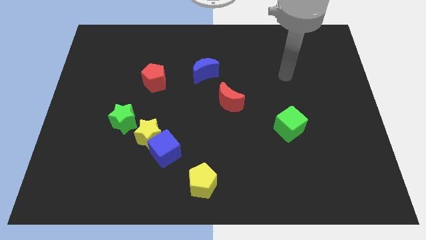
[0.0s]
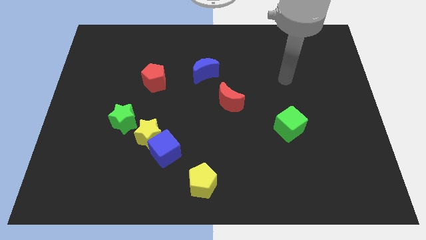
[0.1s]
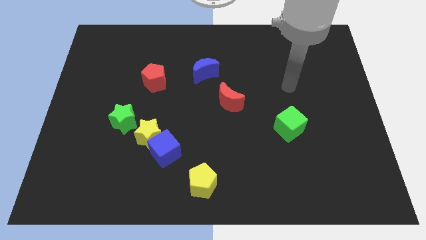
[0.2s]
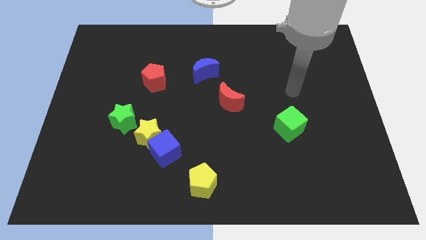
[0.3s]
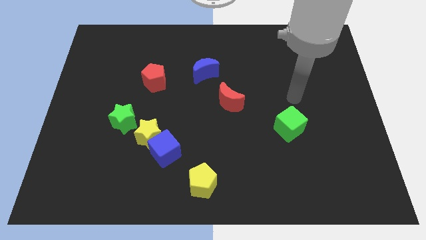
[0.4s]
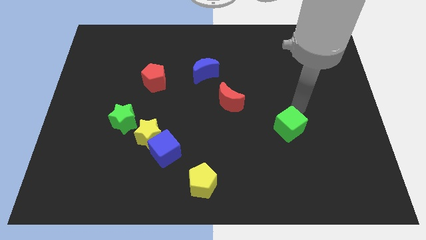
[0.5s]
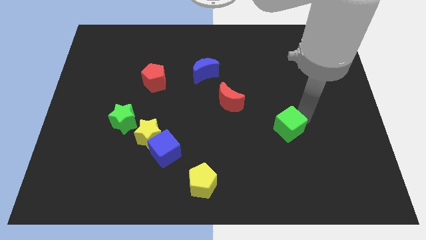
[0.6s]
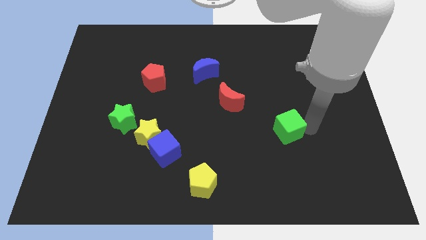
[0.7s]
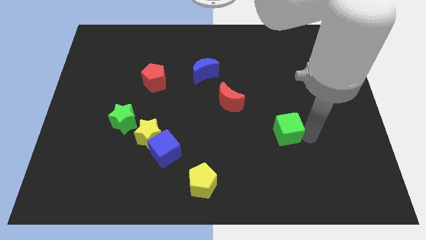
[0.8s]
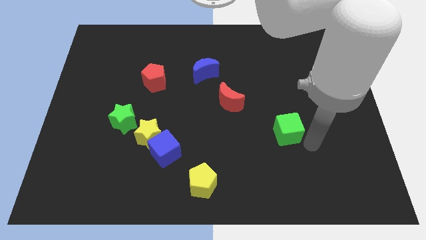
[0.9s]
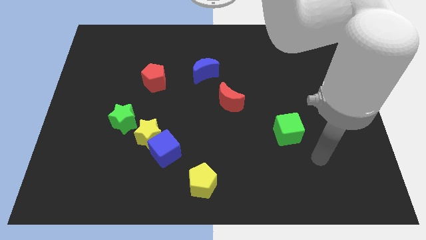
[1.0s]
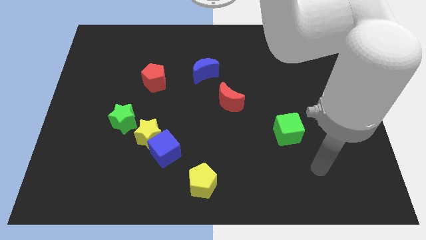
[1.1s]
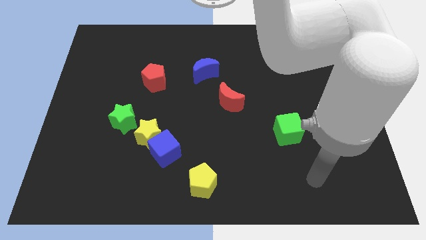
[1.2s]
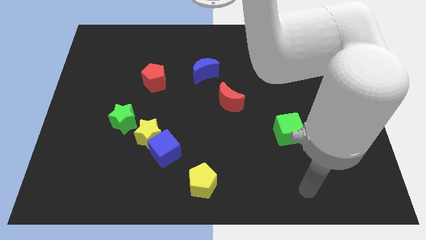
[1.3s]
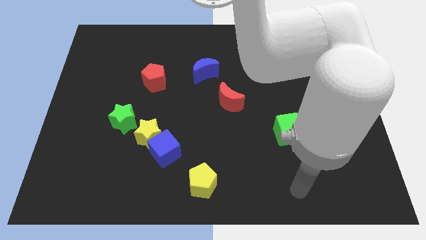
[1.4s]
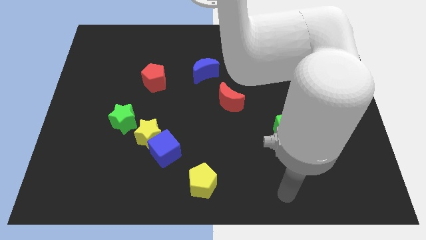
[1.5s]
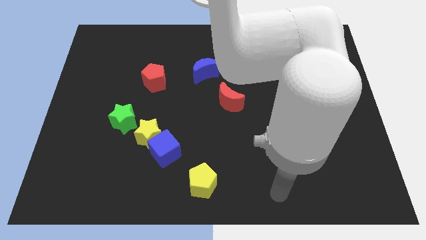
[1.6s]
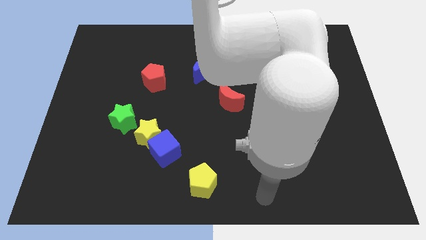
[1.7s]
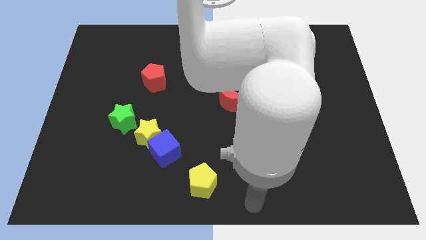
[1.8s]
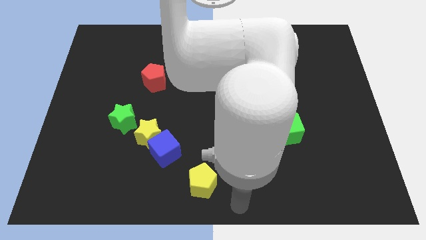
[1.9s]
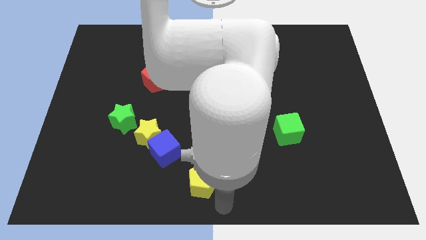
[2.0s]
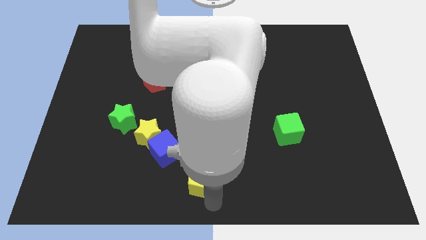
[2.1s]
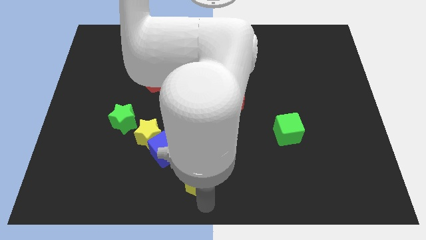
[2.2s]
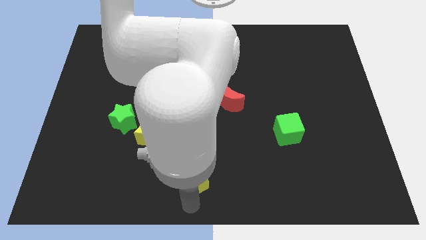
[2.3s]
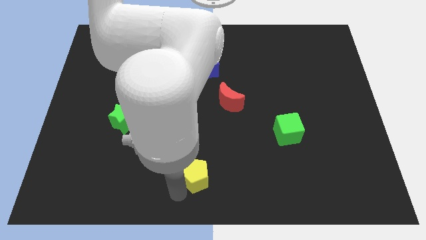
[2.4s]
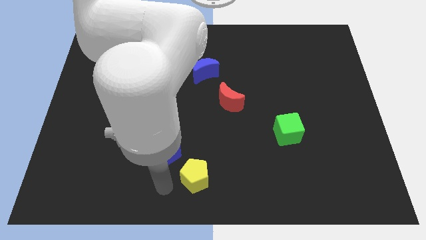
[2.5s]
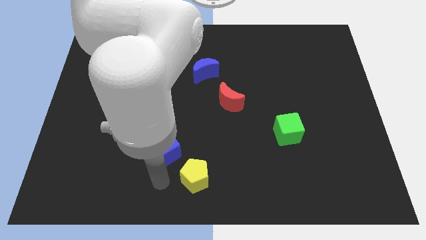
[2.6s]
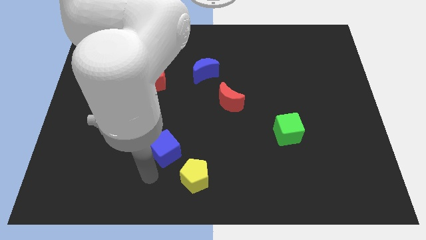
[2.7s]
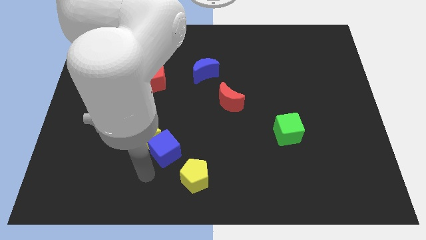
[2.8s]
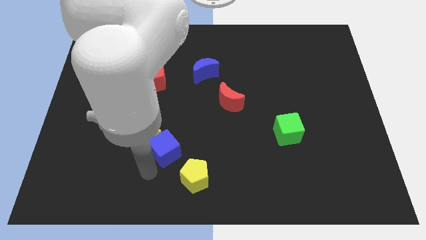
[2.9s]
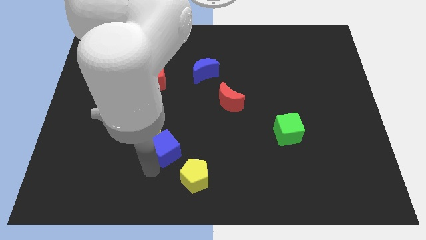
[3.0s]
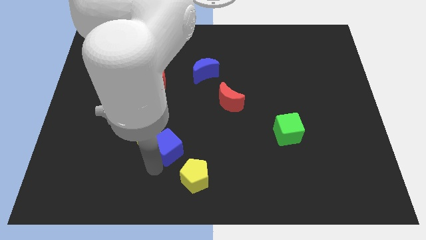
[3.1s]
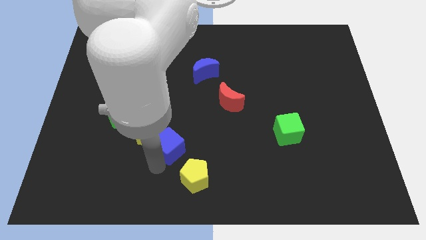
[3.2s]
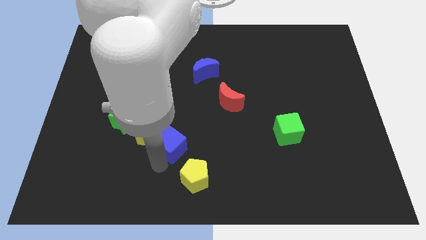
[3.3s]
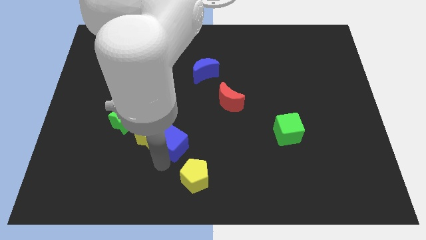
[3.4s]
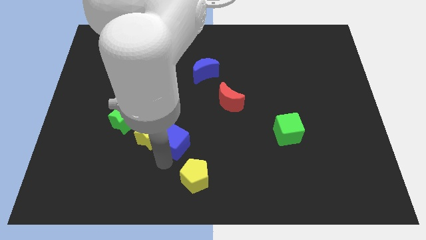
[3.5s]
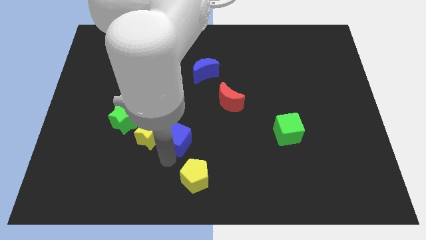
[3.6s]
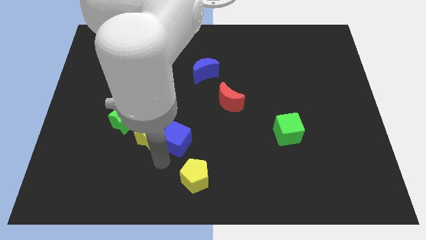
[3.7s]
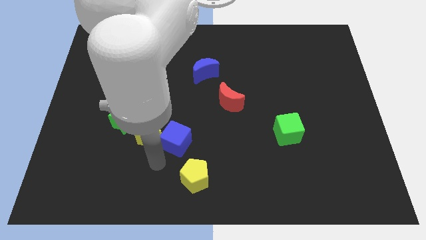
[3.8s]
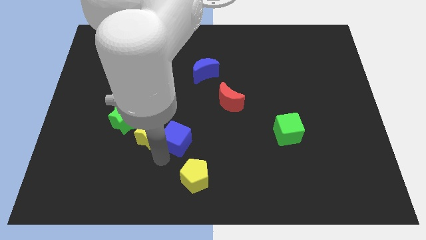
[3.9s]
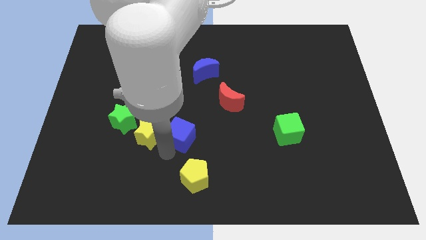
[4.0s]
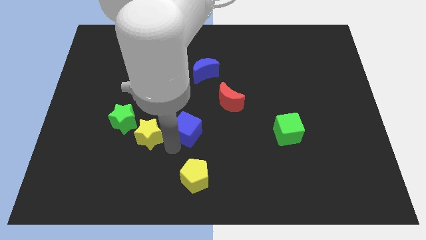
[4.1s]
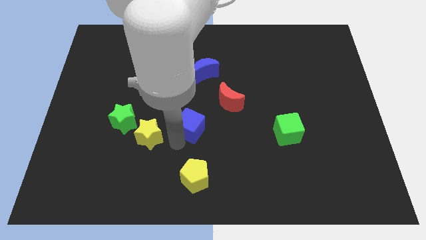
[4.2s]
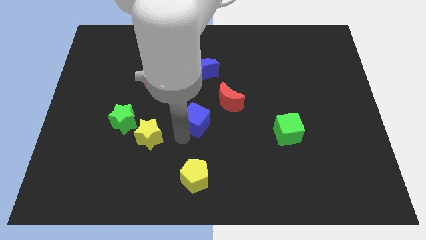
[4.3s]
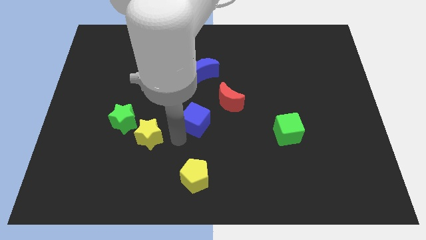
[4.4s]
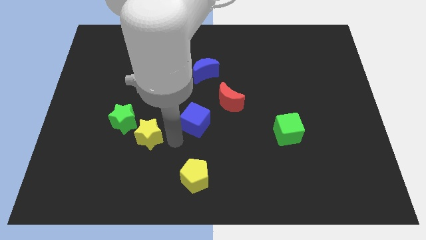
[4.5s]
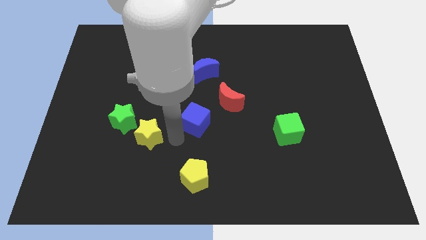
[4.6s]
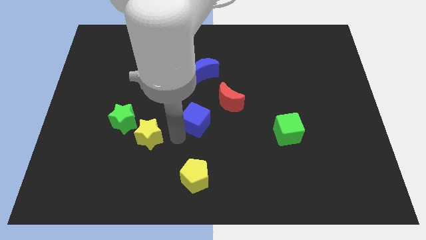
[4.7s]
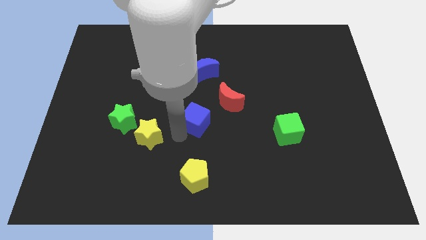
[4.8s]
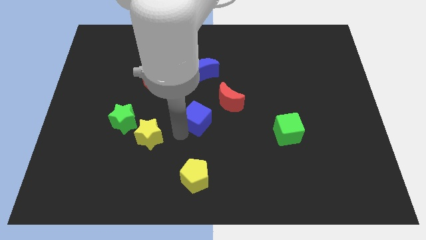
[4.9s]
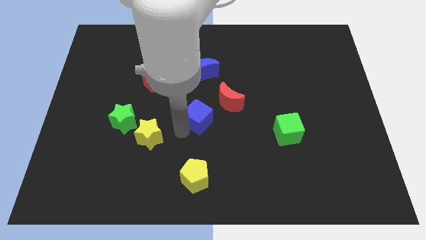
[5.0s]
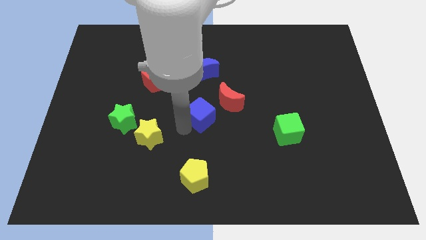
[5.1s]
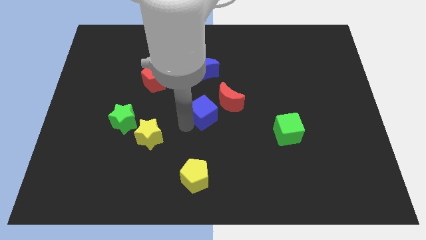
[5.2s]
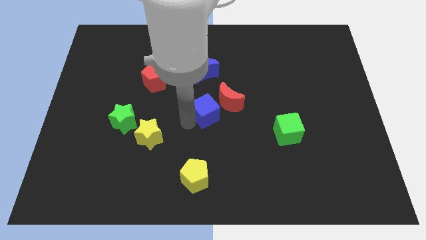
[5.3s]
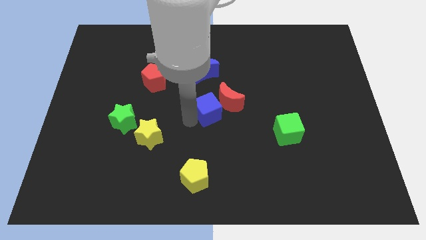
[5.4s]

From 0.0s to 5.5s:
push the blue cube next to the red moon
